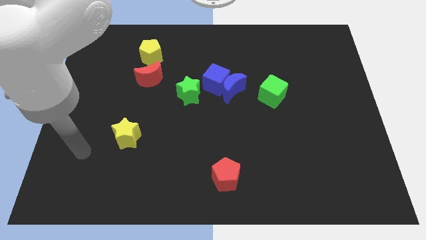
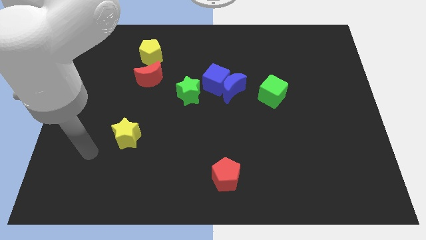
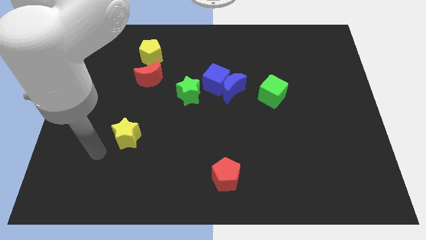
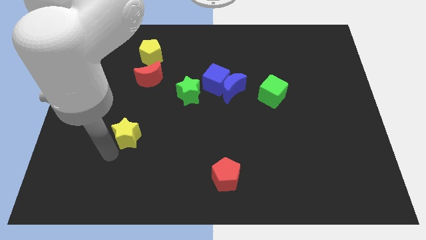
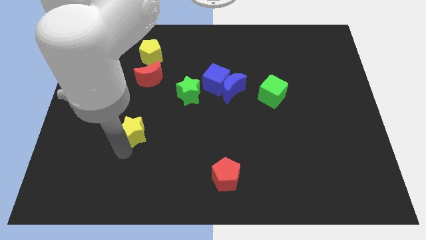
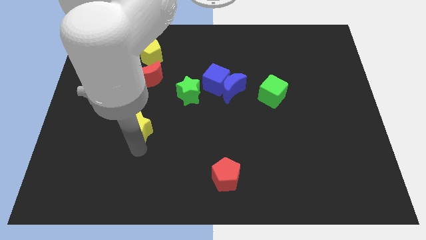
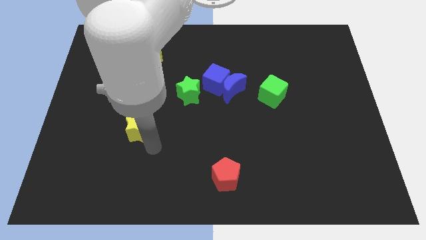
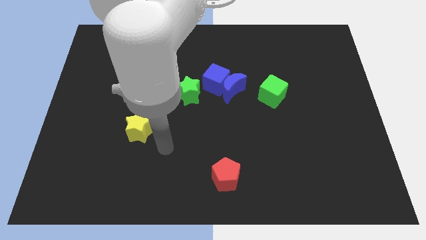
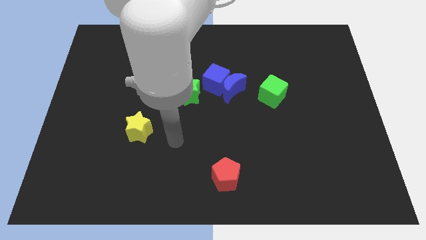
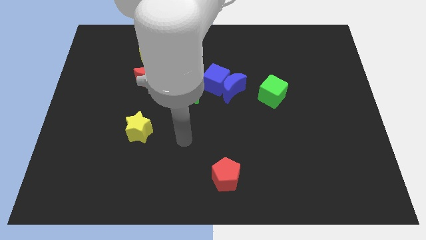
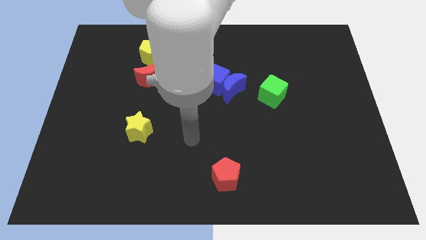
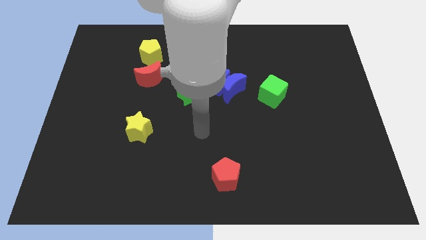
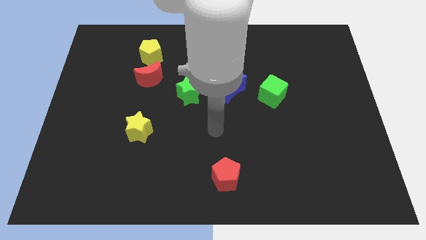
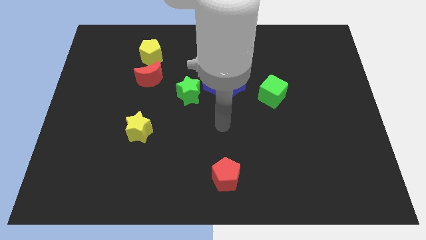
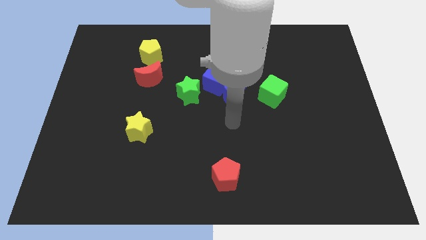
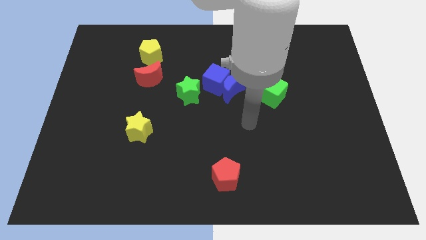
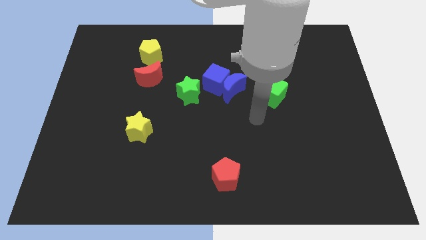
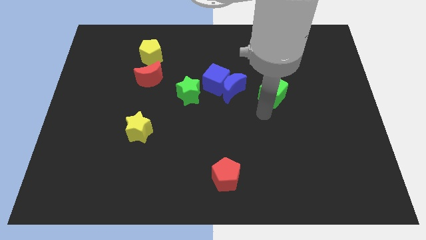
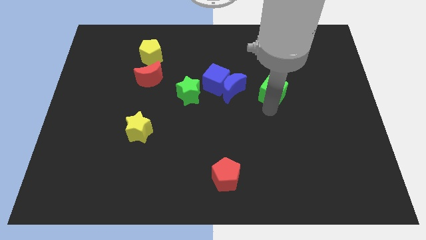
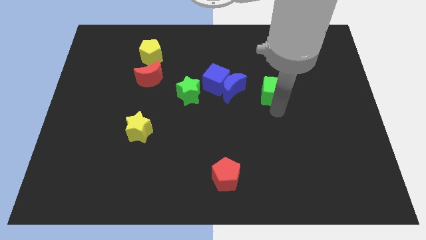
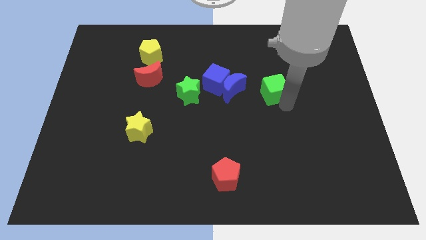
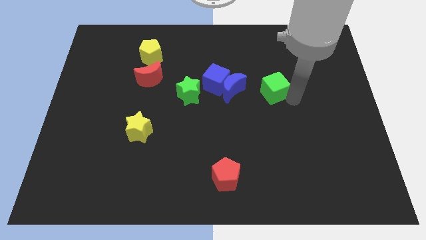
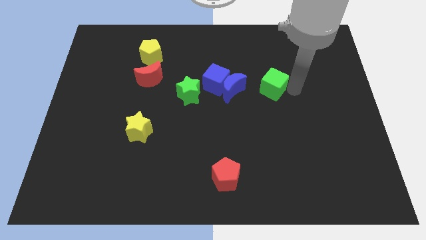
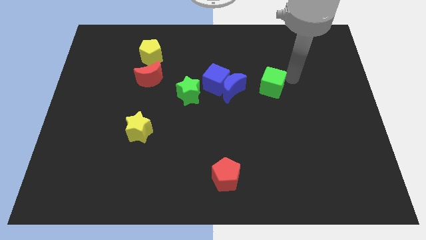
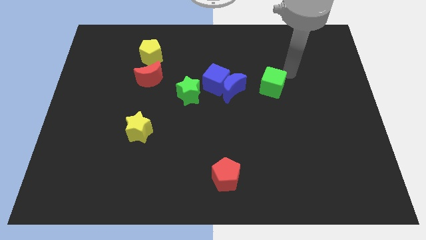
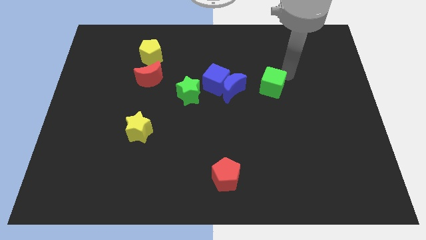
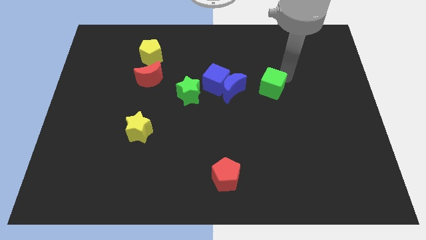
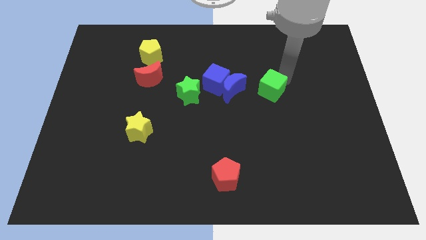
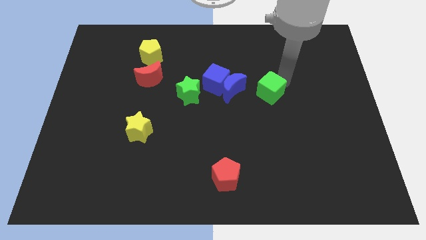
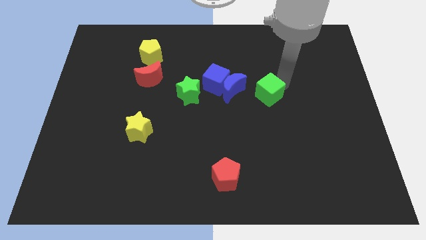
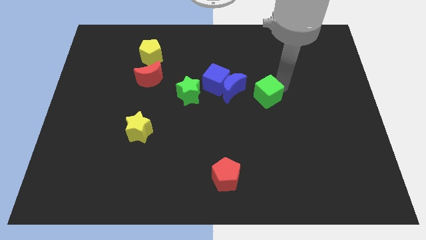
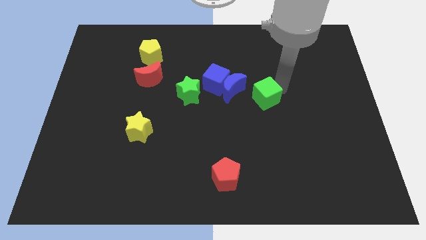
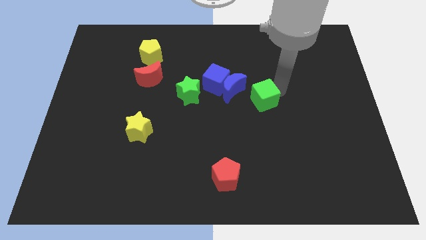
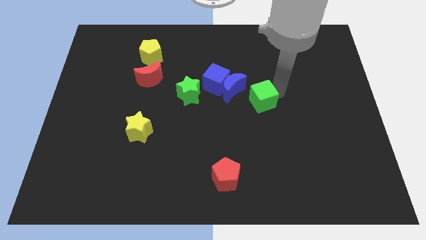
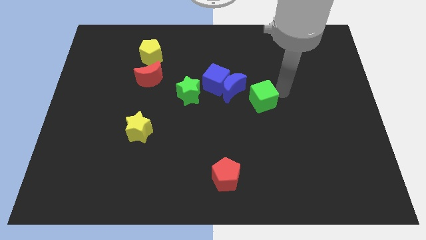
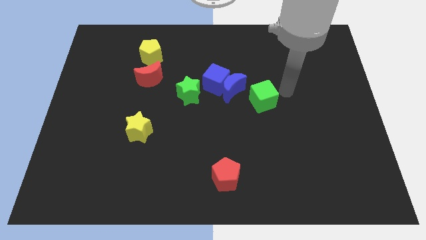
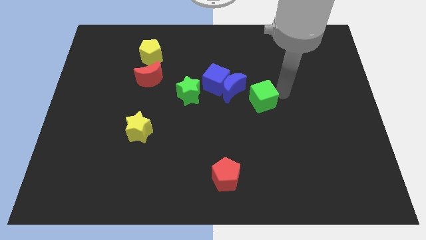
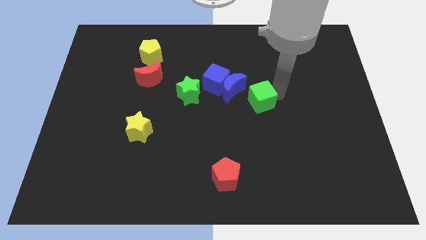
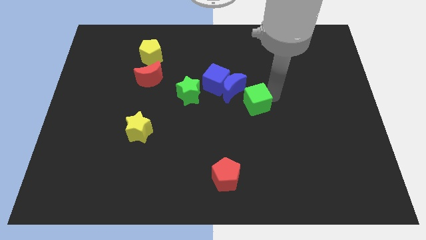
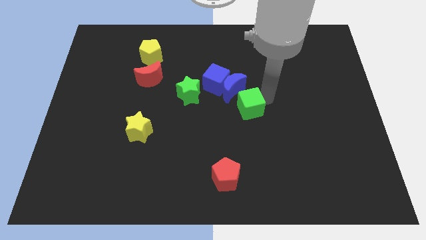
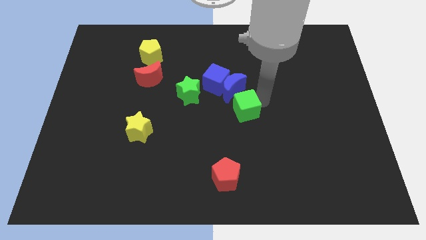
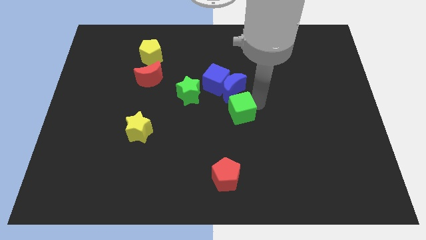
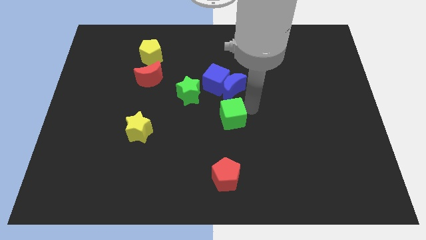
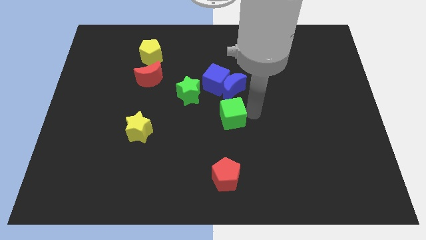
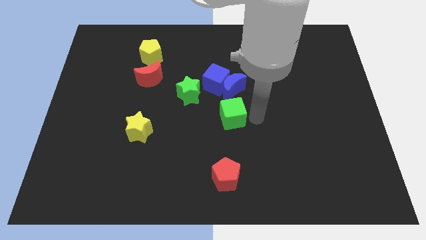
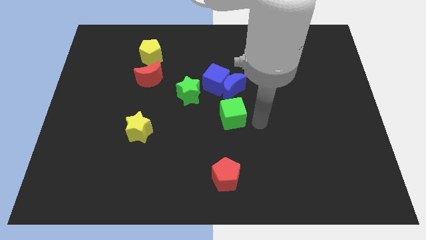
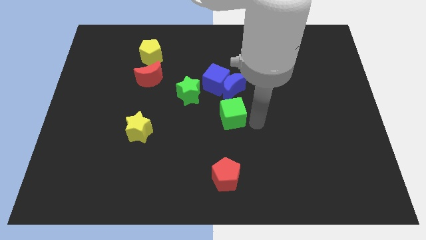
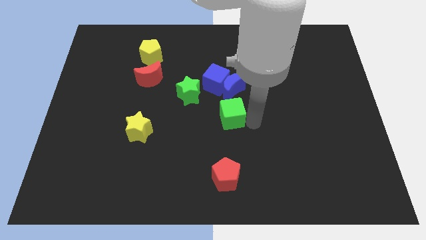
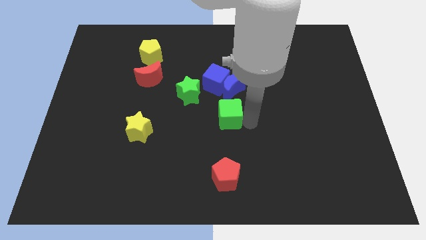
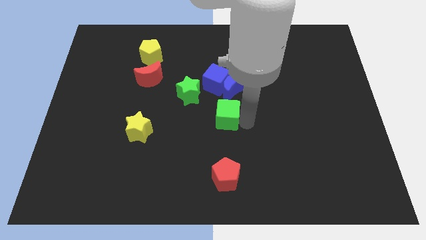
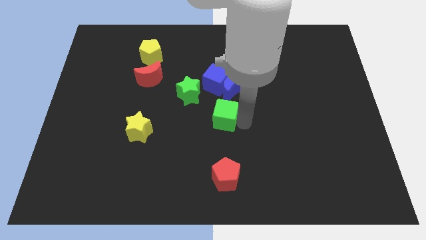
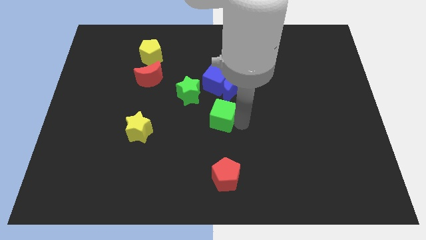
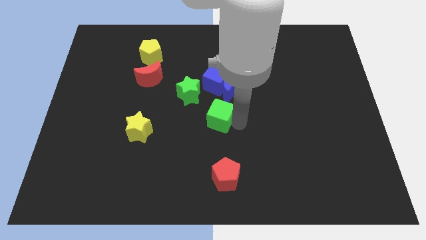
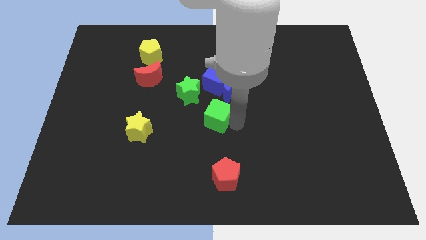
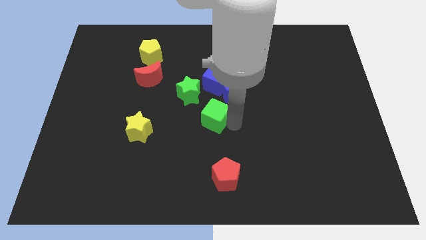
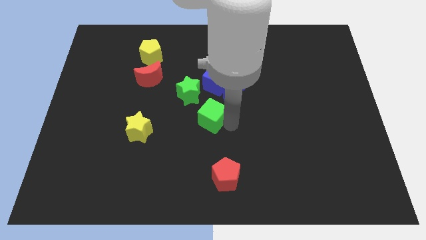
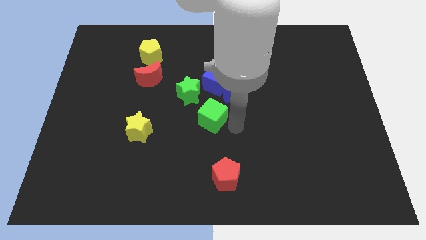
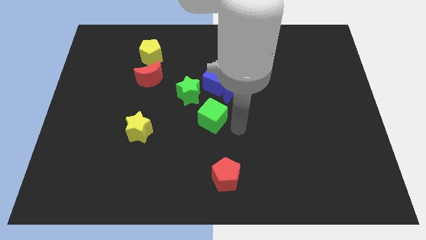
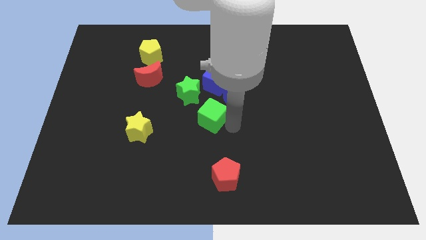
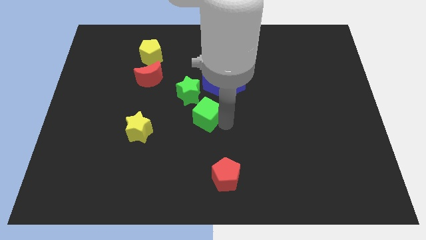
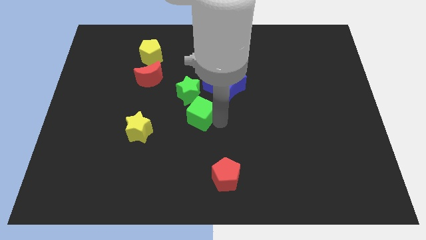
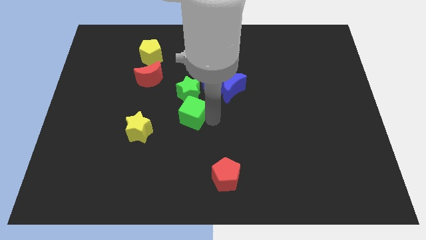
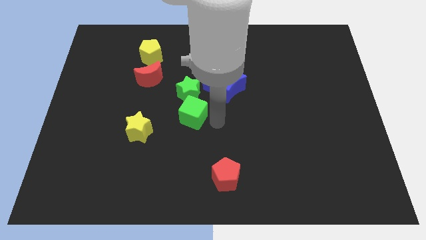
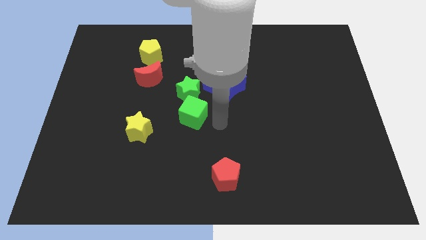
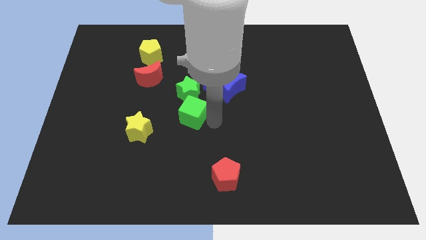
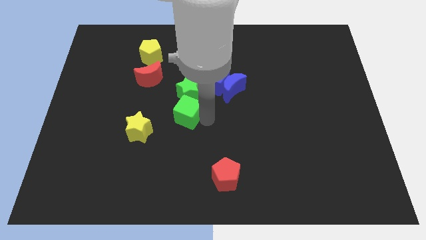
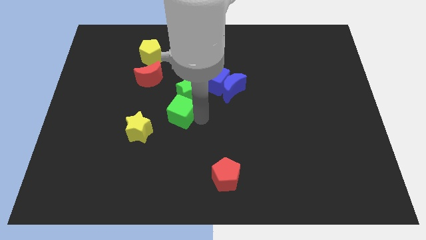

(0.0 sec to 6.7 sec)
slide the green cube left

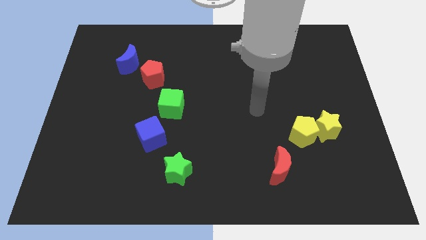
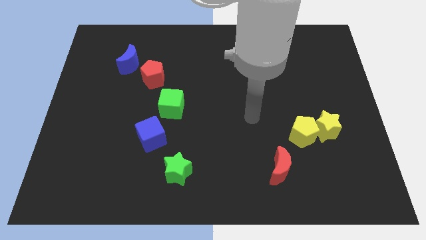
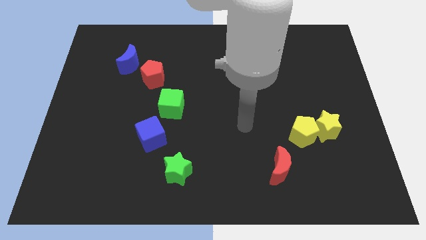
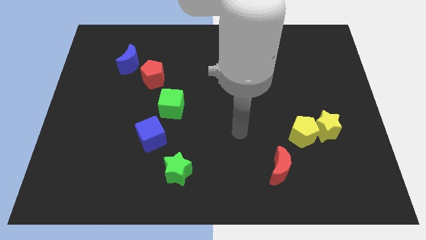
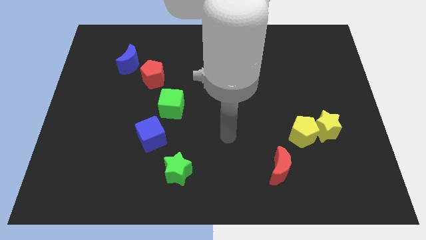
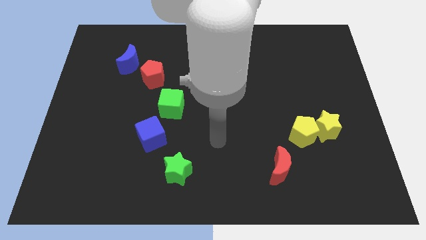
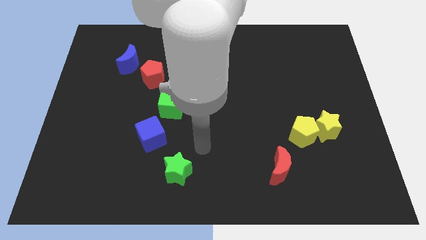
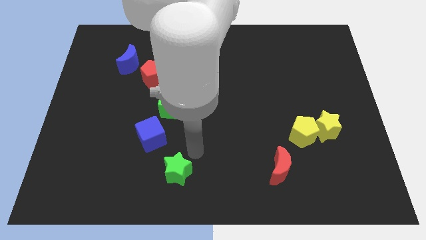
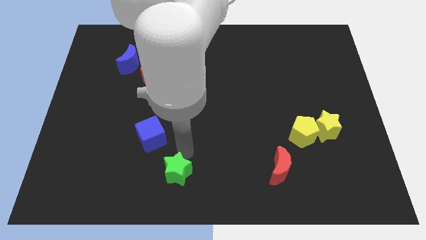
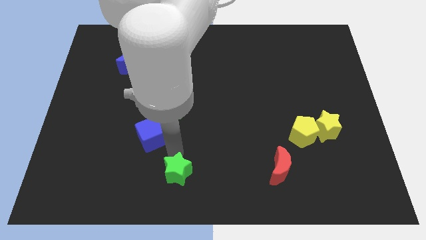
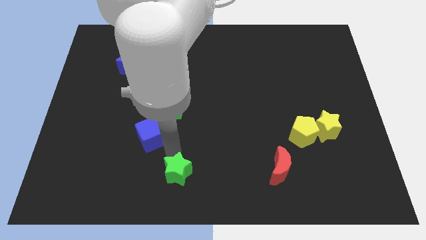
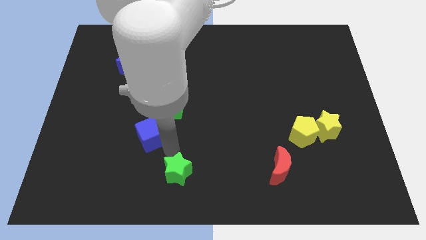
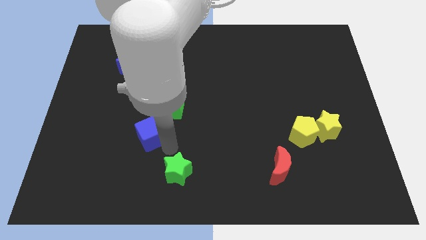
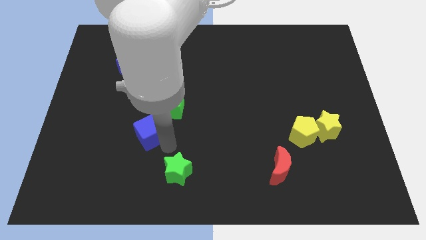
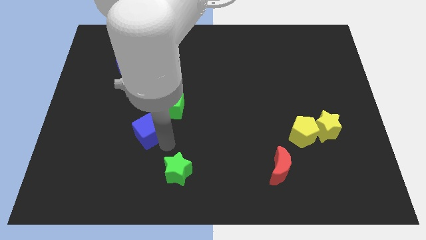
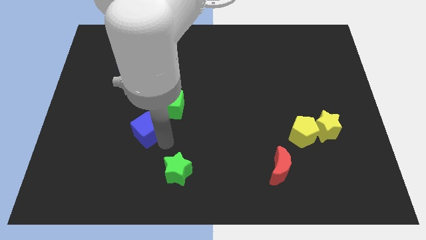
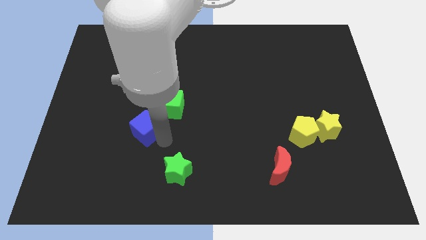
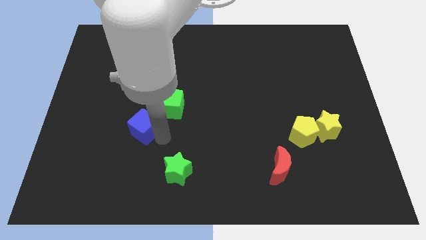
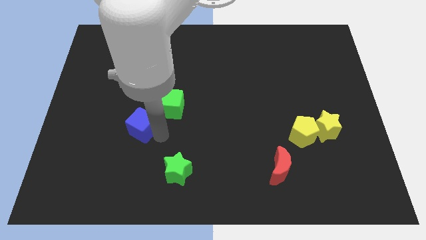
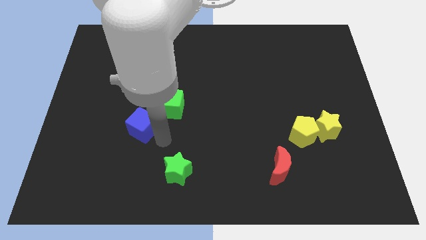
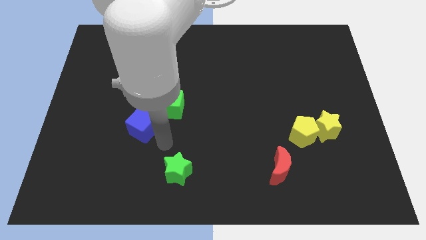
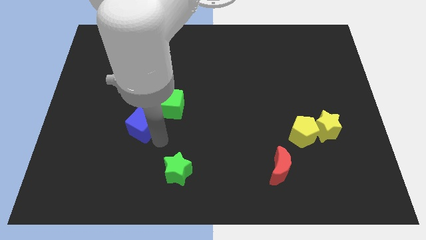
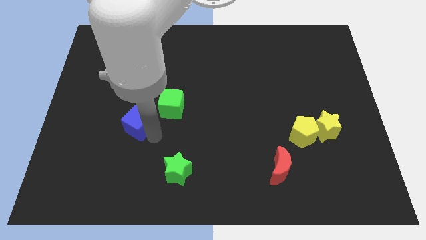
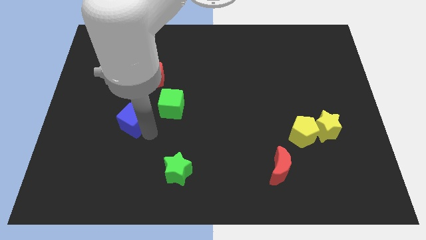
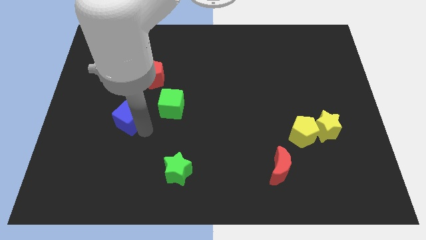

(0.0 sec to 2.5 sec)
push the blue cube a bit diagonally upwards and to the left
